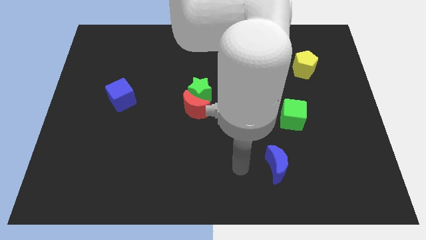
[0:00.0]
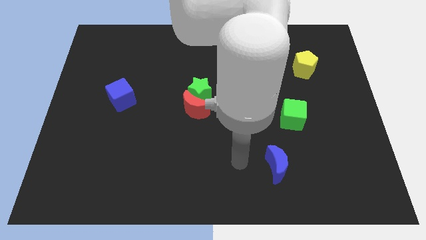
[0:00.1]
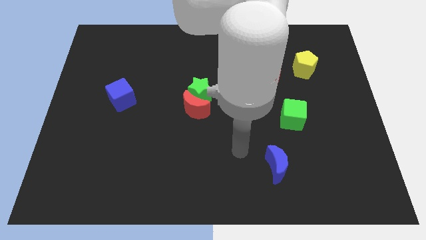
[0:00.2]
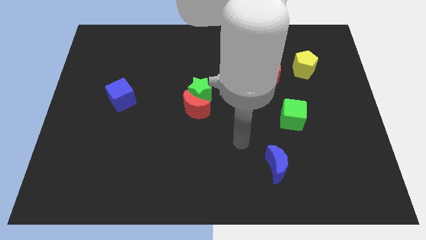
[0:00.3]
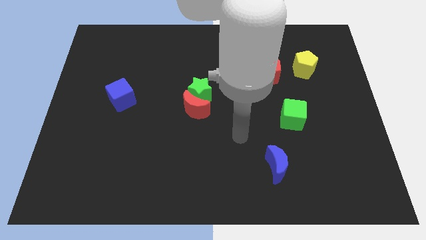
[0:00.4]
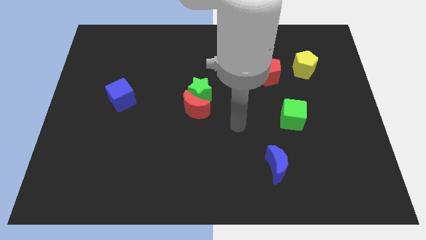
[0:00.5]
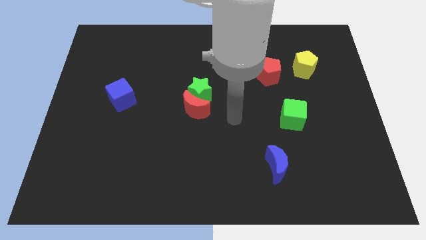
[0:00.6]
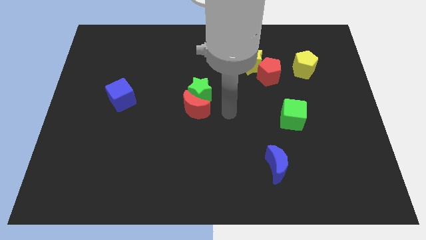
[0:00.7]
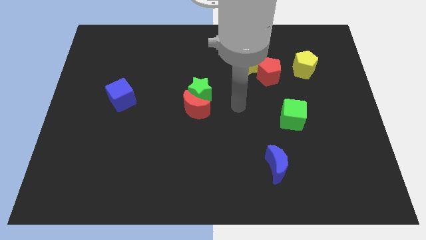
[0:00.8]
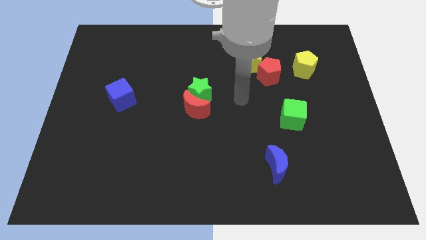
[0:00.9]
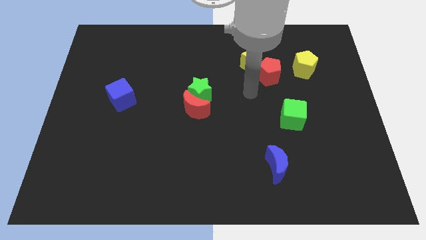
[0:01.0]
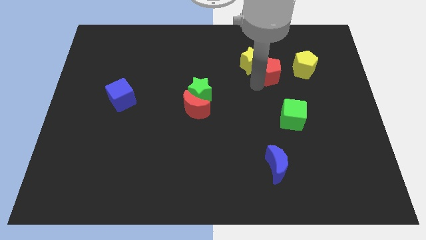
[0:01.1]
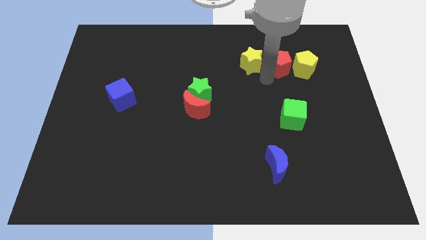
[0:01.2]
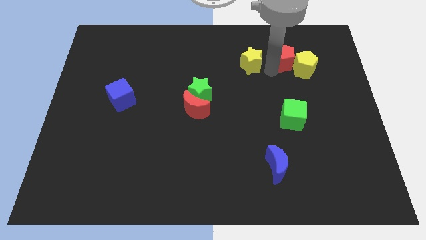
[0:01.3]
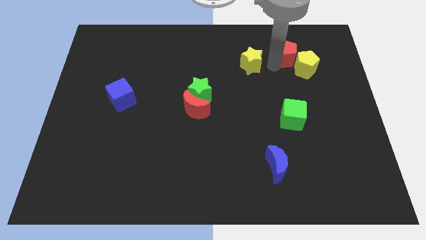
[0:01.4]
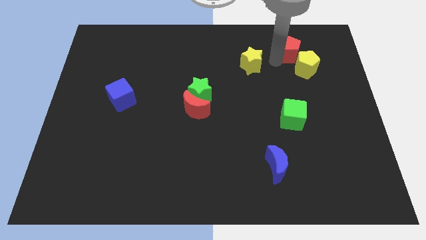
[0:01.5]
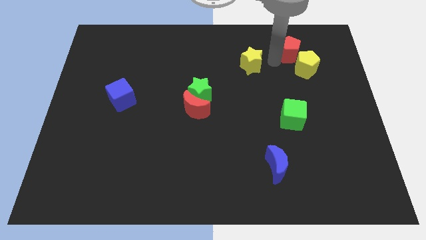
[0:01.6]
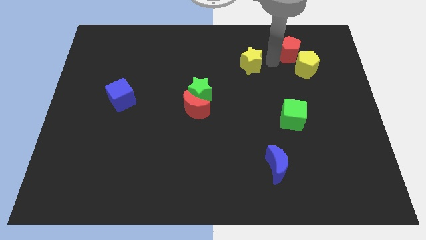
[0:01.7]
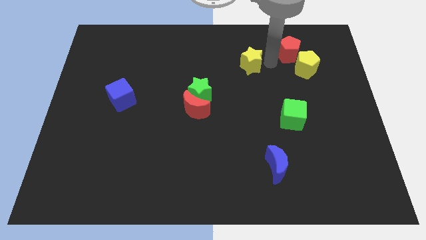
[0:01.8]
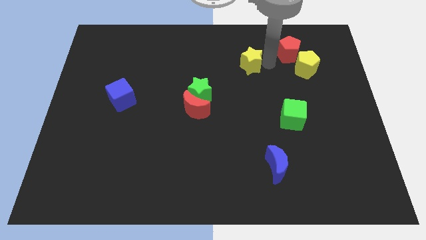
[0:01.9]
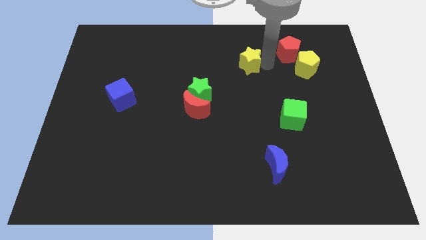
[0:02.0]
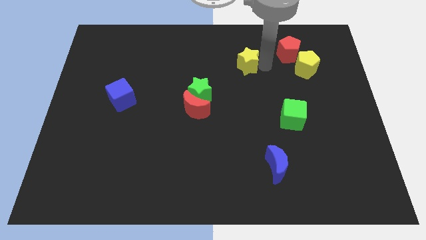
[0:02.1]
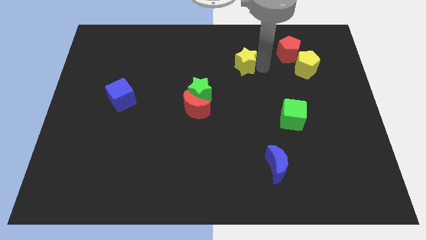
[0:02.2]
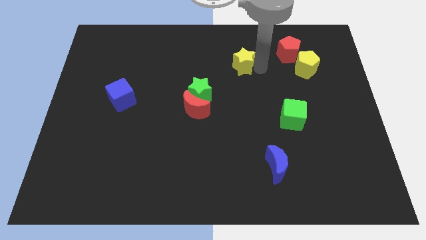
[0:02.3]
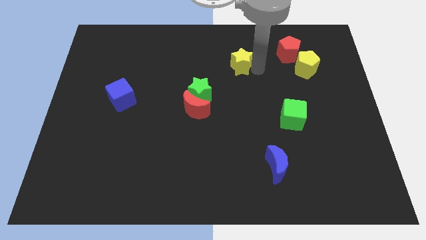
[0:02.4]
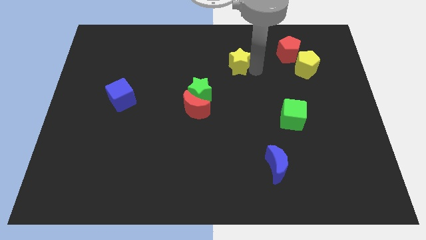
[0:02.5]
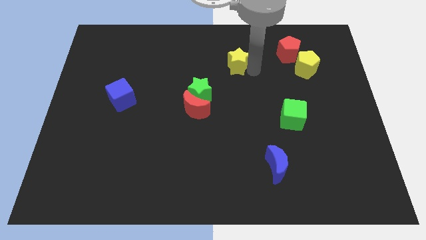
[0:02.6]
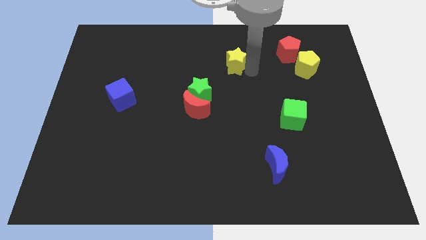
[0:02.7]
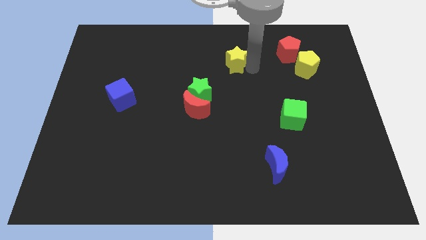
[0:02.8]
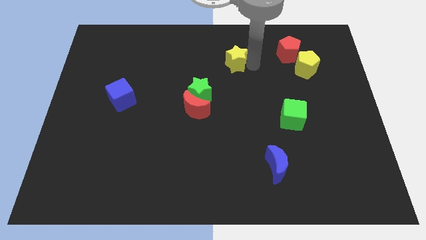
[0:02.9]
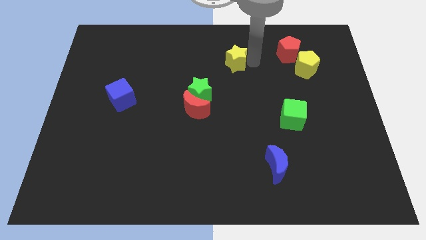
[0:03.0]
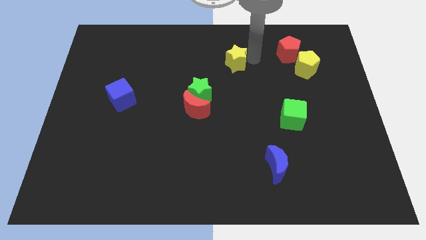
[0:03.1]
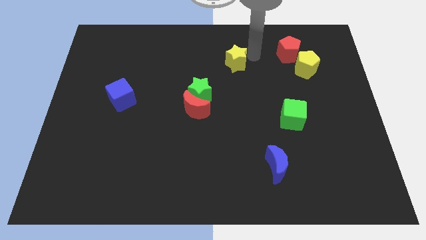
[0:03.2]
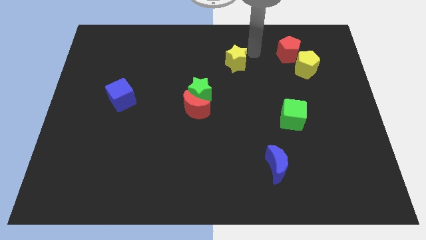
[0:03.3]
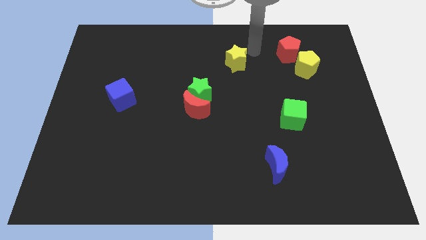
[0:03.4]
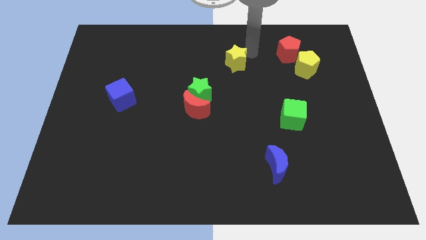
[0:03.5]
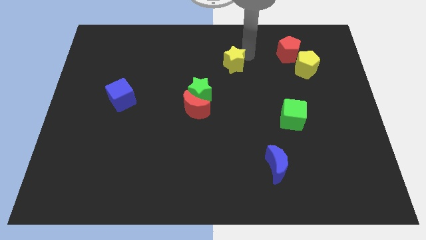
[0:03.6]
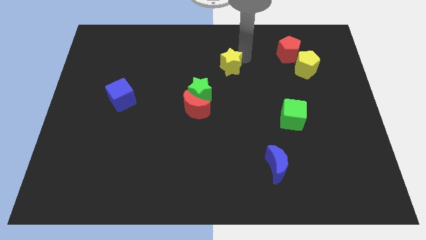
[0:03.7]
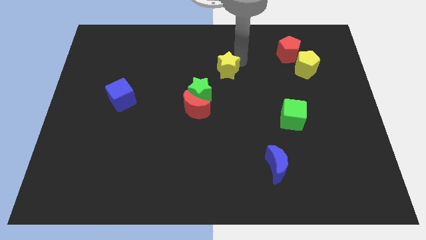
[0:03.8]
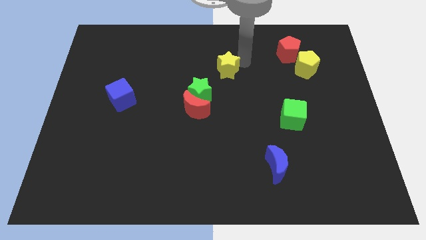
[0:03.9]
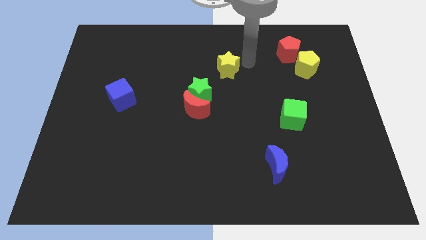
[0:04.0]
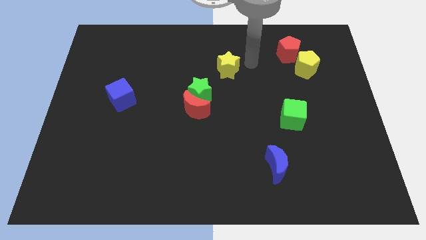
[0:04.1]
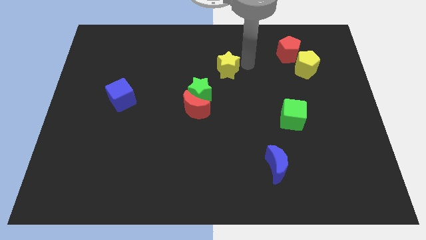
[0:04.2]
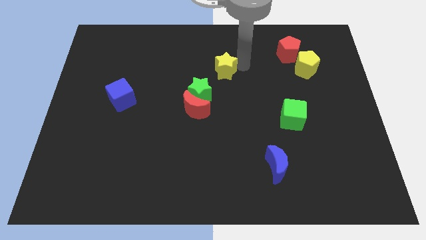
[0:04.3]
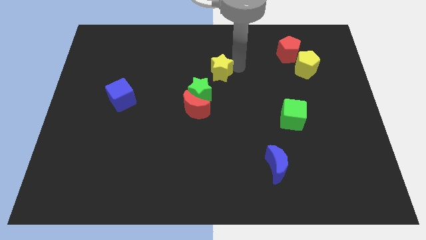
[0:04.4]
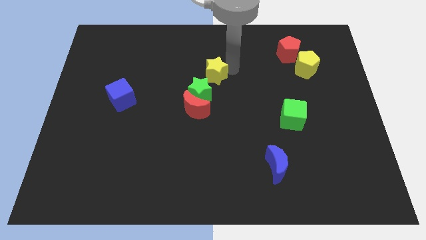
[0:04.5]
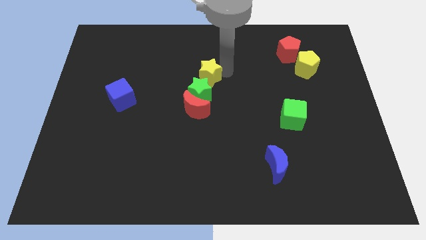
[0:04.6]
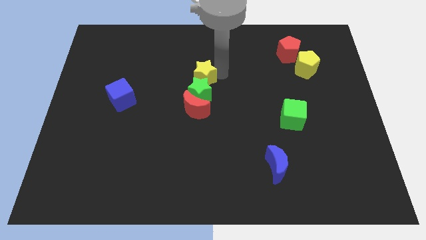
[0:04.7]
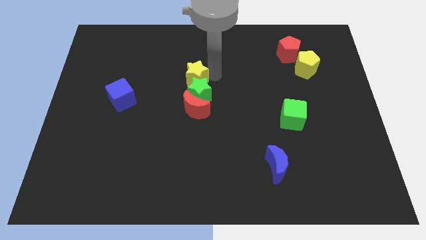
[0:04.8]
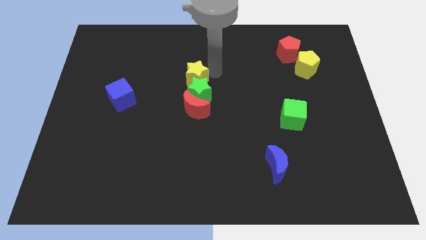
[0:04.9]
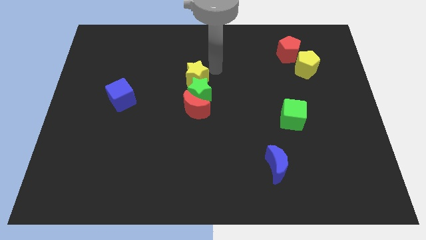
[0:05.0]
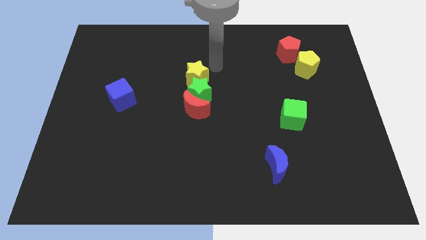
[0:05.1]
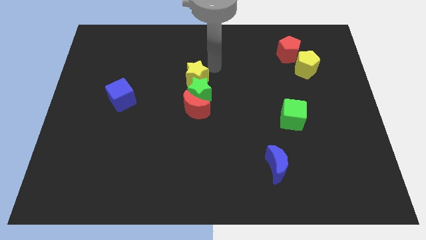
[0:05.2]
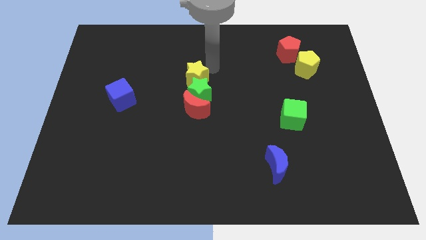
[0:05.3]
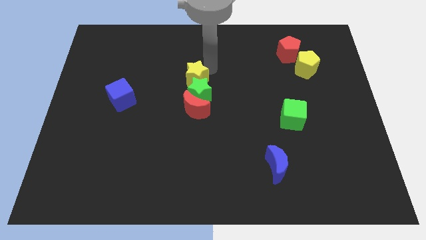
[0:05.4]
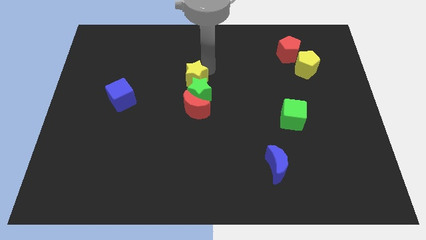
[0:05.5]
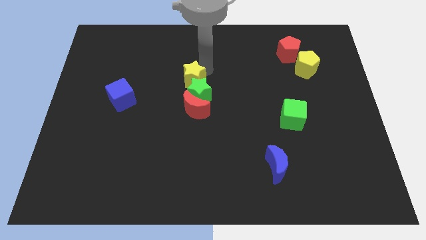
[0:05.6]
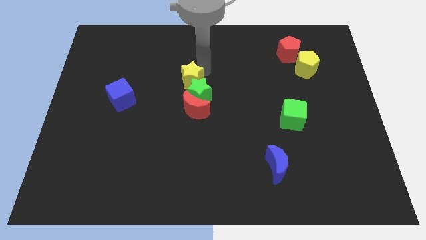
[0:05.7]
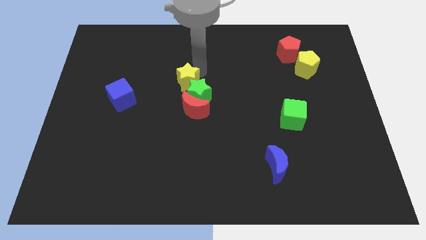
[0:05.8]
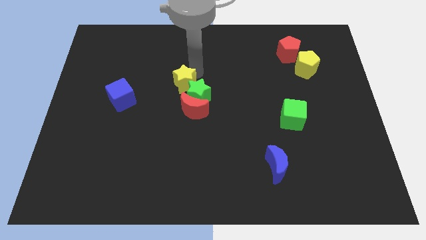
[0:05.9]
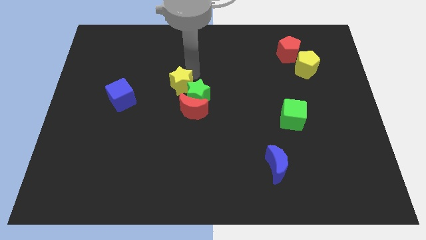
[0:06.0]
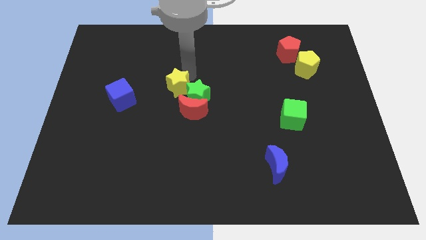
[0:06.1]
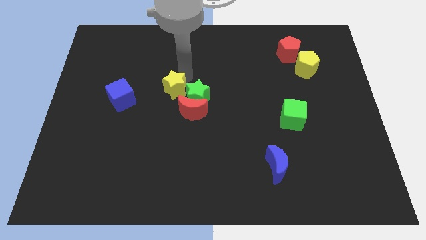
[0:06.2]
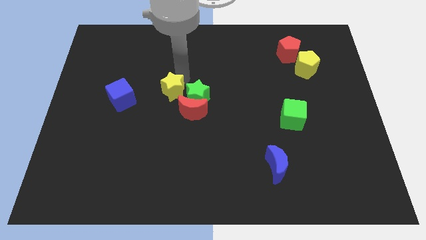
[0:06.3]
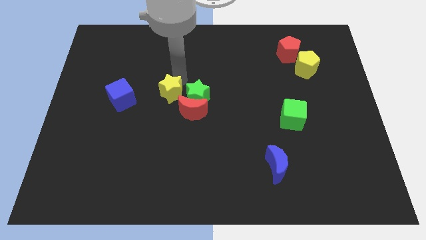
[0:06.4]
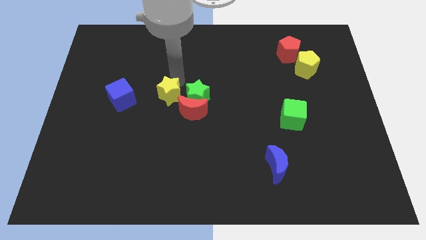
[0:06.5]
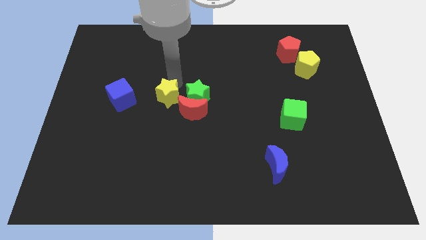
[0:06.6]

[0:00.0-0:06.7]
put the yellow star diagonally down and to the left of the green star
